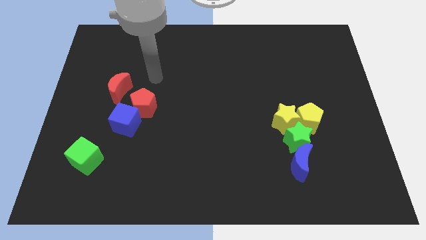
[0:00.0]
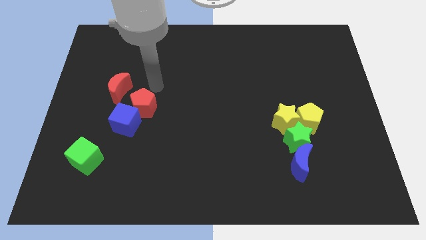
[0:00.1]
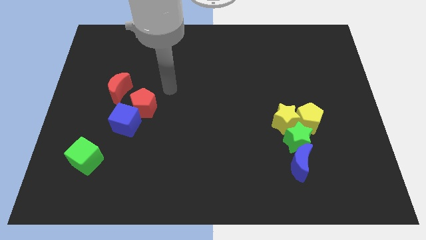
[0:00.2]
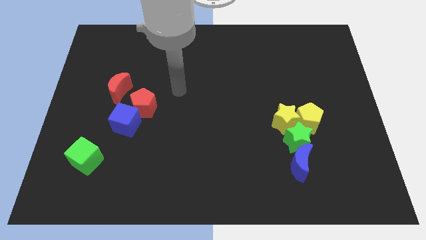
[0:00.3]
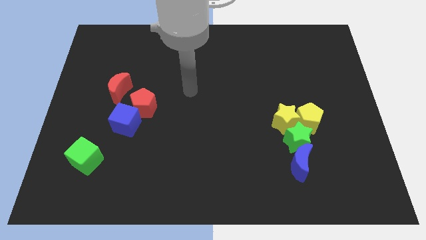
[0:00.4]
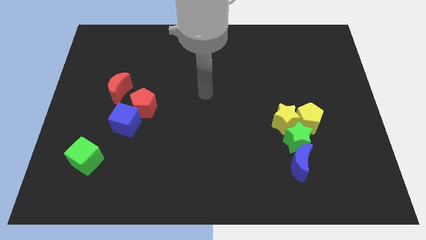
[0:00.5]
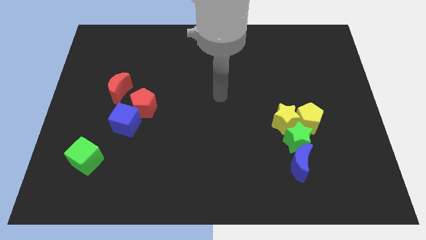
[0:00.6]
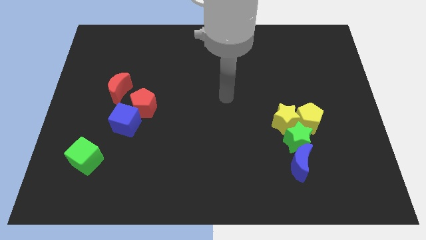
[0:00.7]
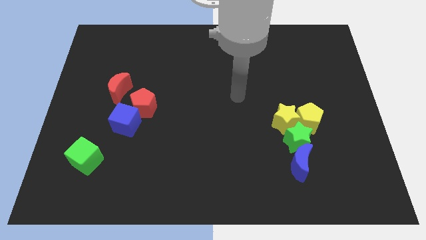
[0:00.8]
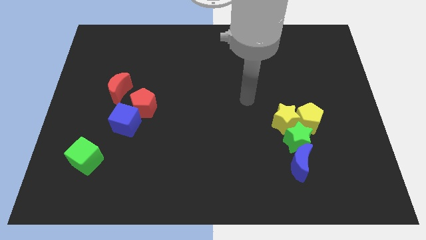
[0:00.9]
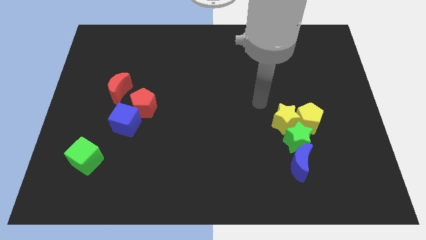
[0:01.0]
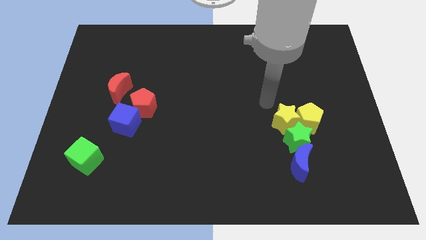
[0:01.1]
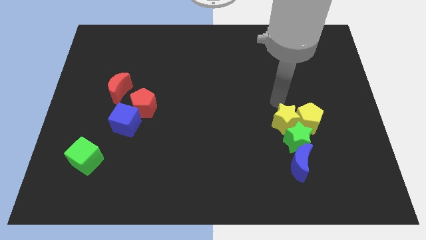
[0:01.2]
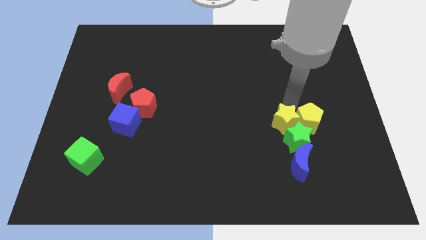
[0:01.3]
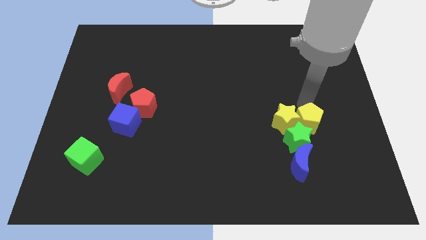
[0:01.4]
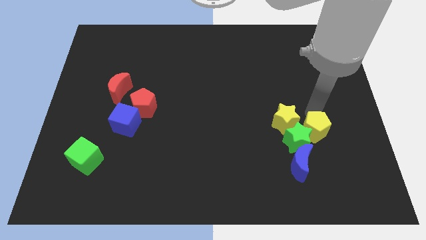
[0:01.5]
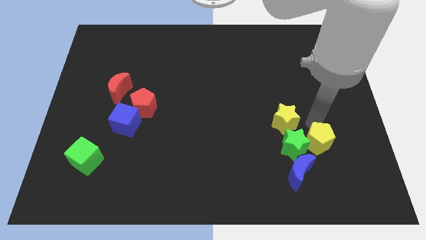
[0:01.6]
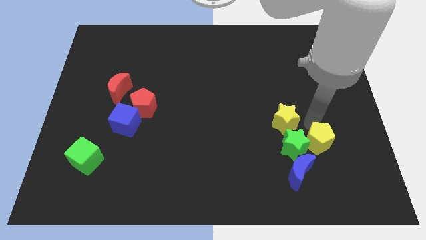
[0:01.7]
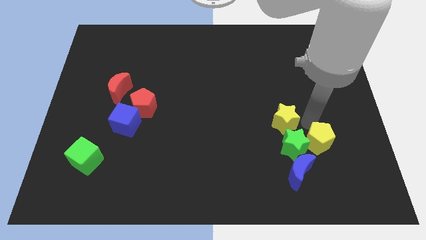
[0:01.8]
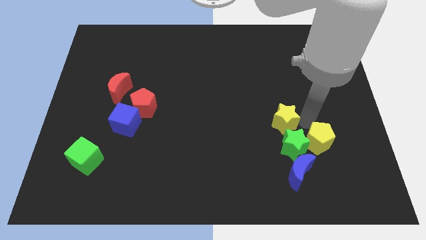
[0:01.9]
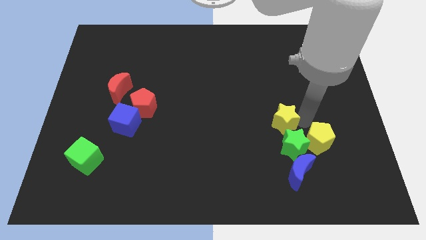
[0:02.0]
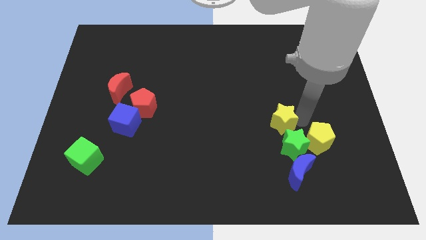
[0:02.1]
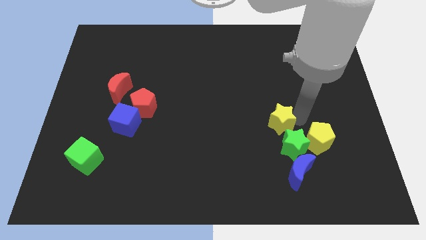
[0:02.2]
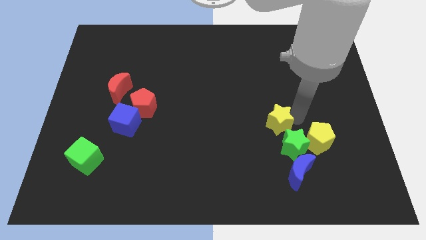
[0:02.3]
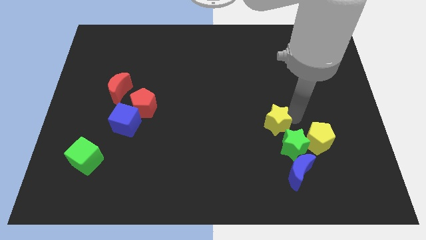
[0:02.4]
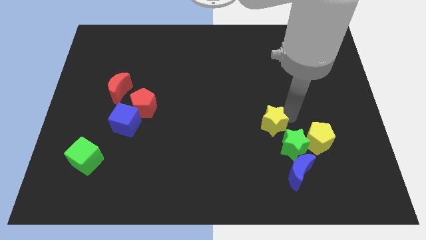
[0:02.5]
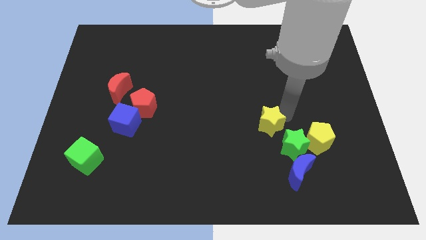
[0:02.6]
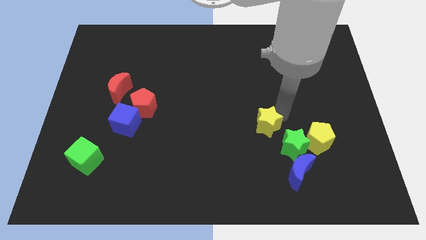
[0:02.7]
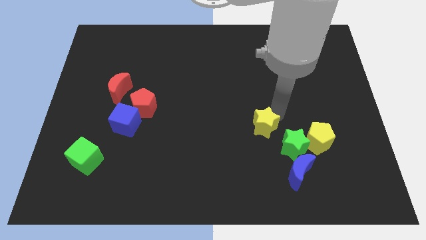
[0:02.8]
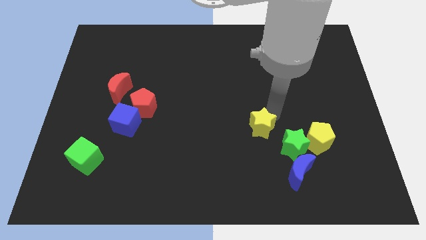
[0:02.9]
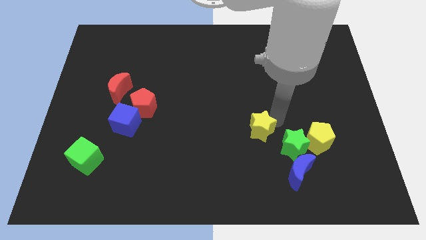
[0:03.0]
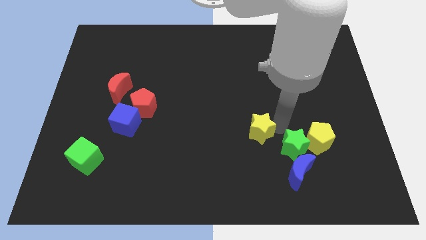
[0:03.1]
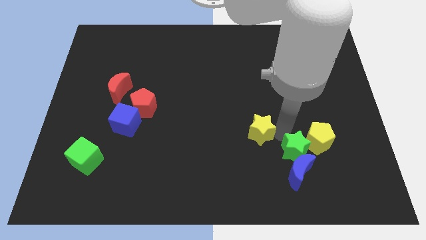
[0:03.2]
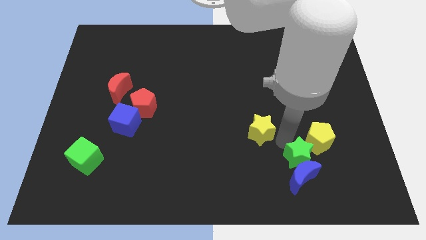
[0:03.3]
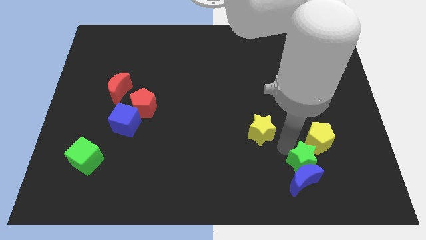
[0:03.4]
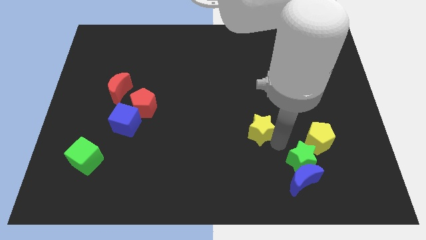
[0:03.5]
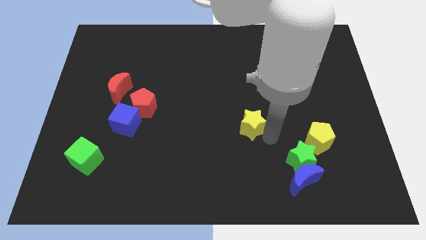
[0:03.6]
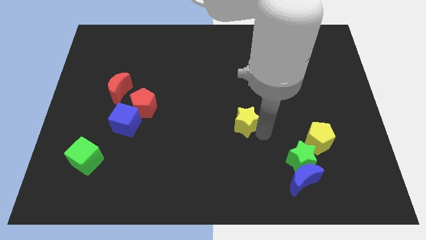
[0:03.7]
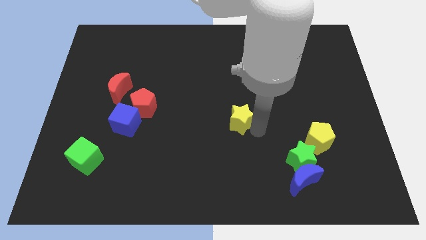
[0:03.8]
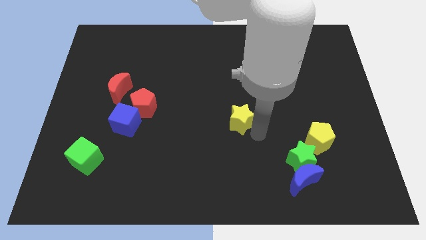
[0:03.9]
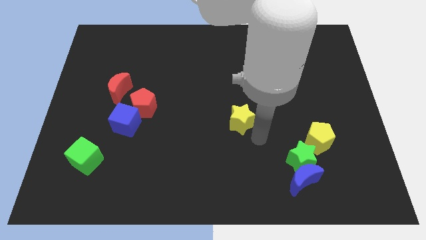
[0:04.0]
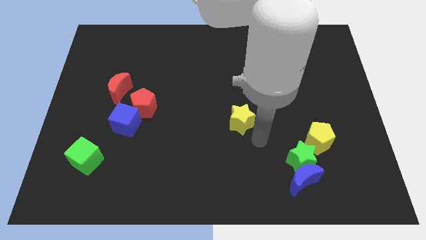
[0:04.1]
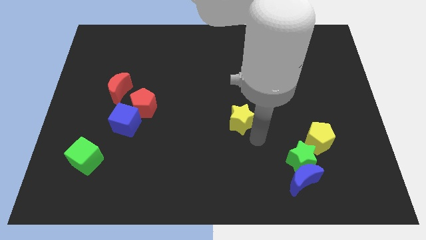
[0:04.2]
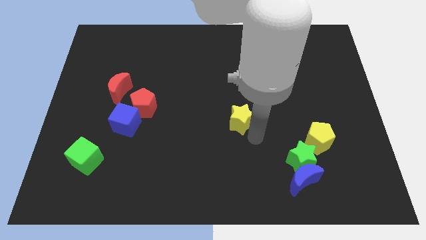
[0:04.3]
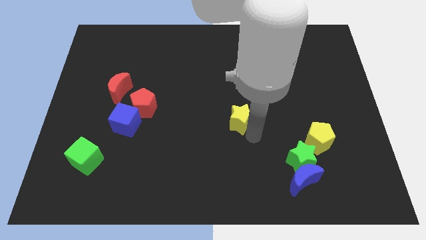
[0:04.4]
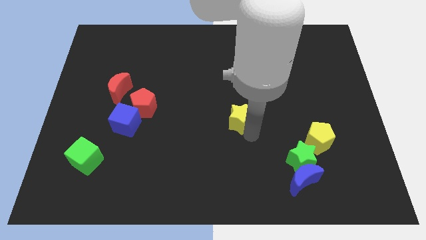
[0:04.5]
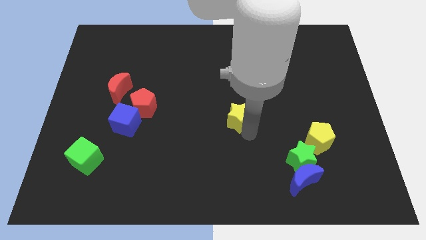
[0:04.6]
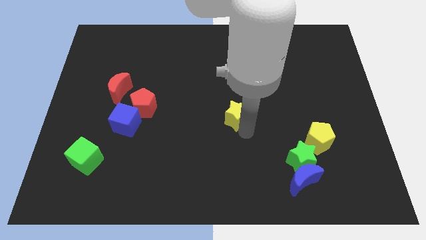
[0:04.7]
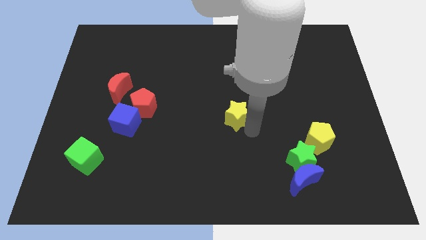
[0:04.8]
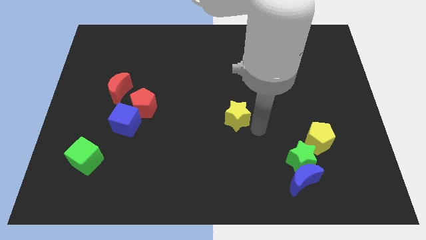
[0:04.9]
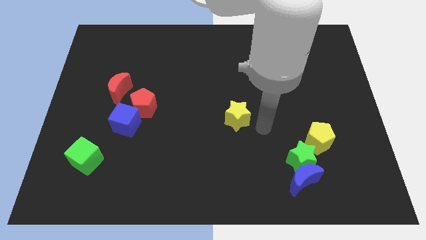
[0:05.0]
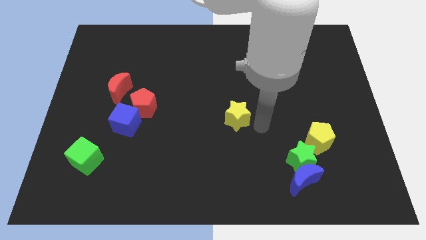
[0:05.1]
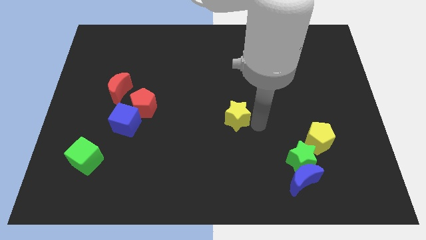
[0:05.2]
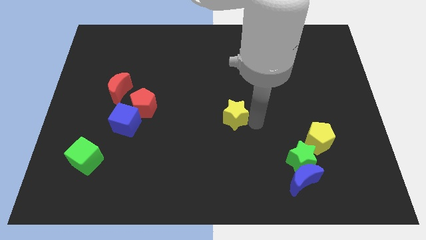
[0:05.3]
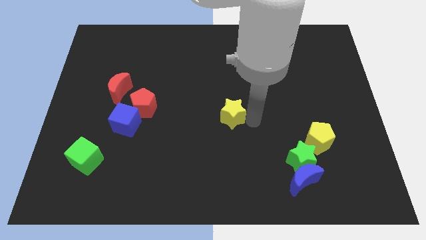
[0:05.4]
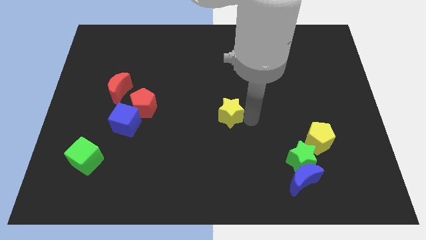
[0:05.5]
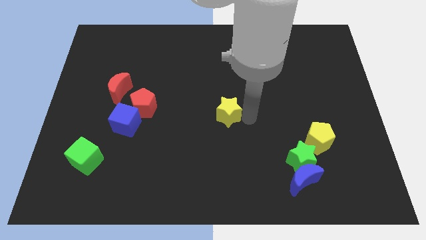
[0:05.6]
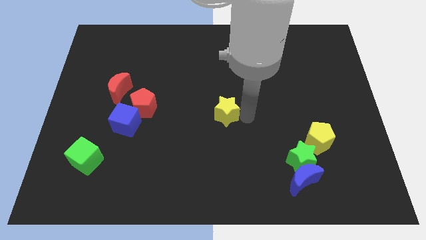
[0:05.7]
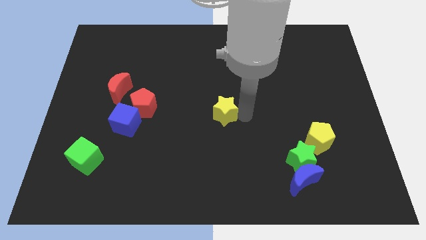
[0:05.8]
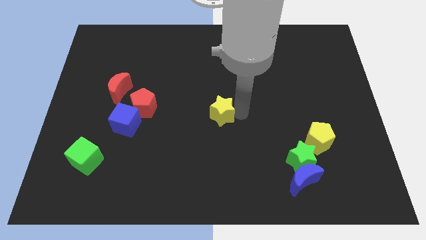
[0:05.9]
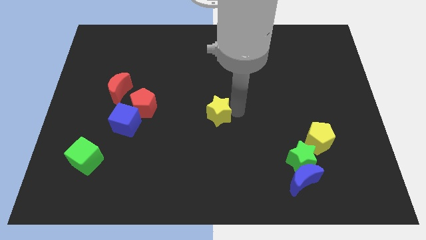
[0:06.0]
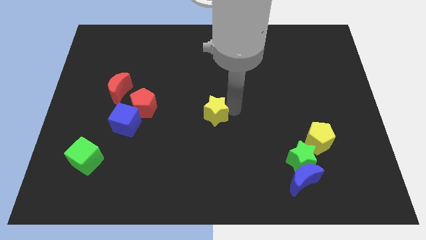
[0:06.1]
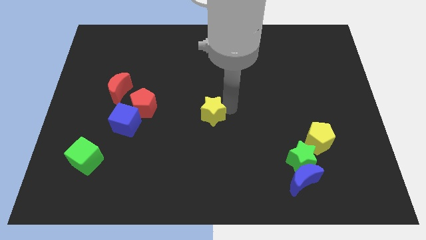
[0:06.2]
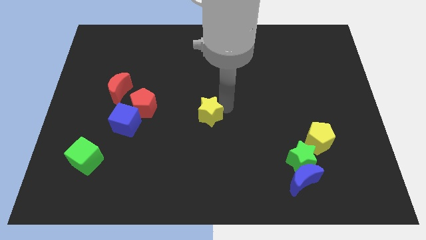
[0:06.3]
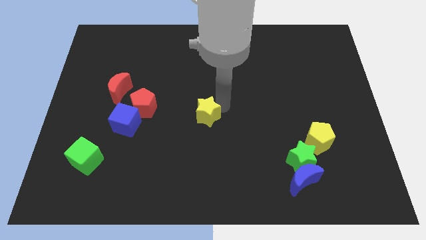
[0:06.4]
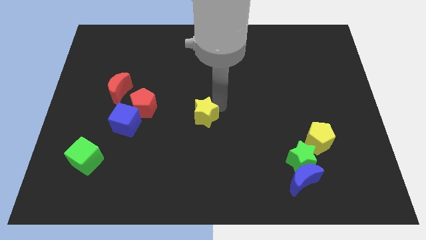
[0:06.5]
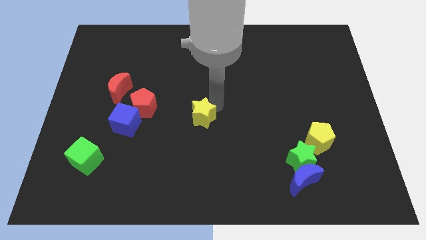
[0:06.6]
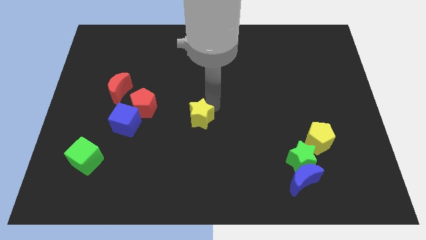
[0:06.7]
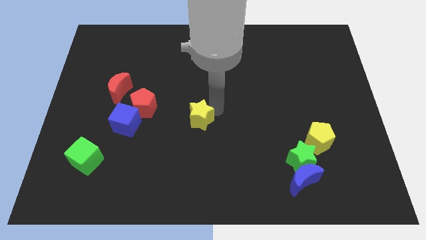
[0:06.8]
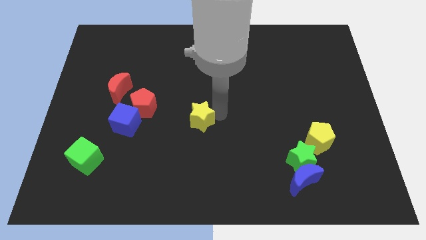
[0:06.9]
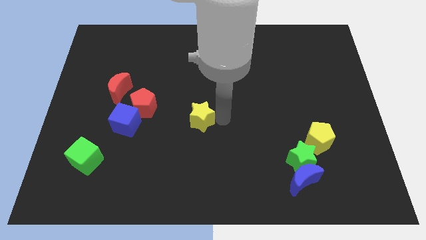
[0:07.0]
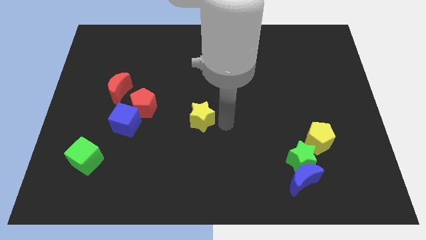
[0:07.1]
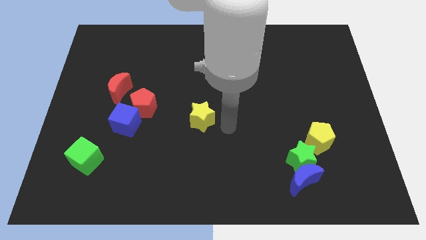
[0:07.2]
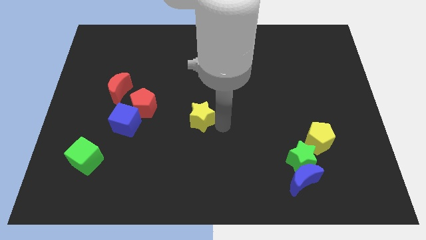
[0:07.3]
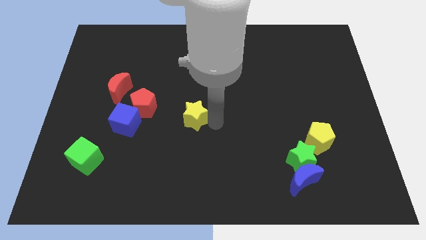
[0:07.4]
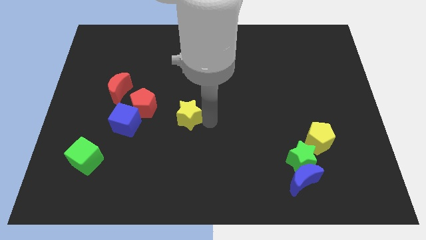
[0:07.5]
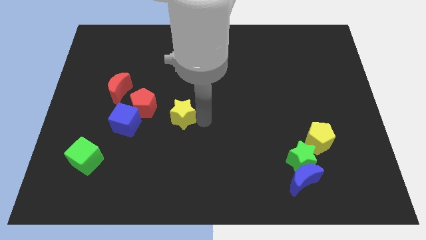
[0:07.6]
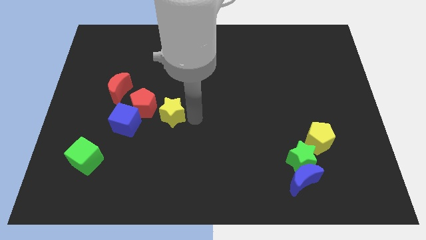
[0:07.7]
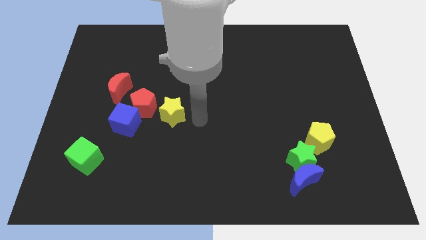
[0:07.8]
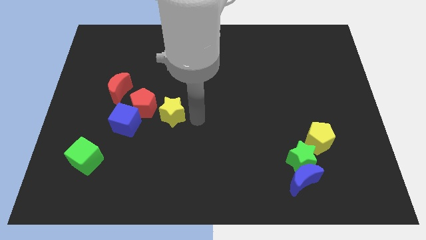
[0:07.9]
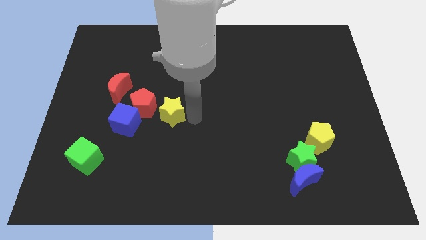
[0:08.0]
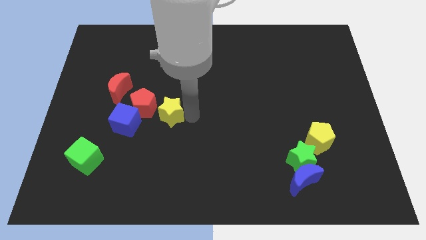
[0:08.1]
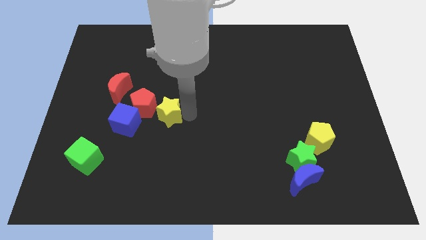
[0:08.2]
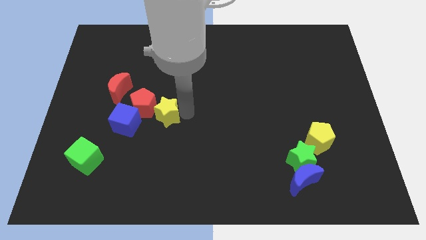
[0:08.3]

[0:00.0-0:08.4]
push the yellow star towards the red pentagon
